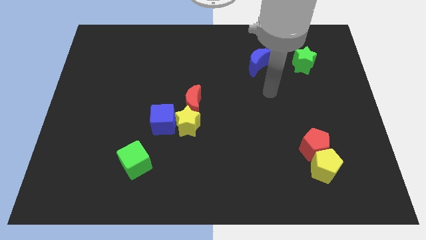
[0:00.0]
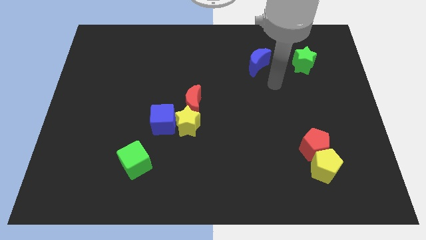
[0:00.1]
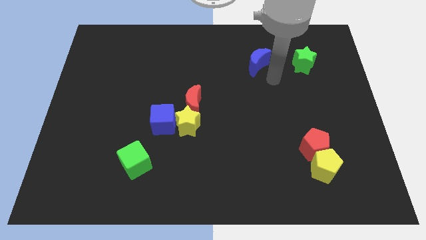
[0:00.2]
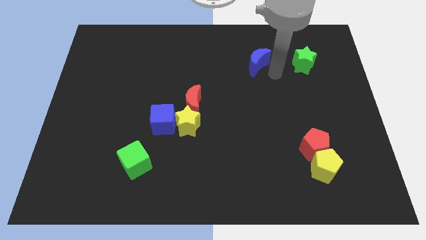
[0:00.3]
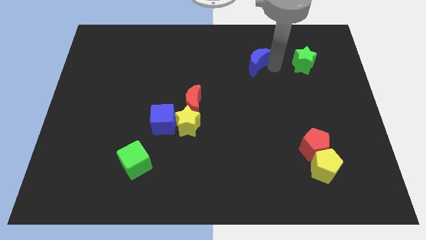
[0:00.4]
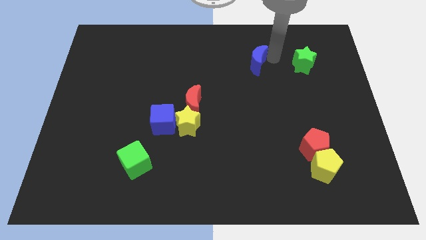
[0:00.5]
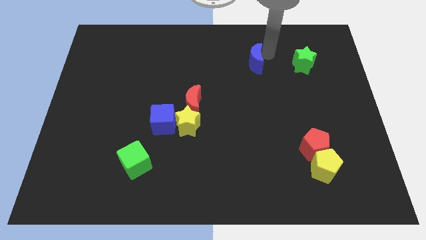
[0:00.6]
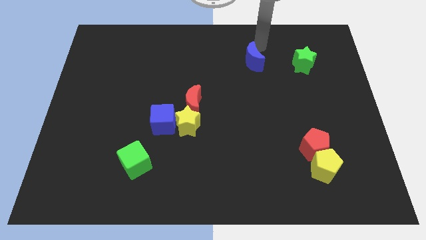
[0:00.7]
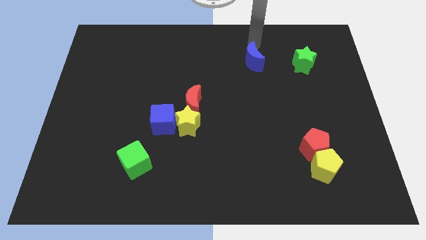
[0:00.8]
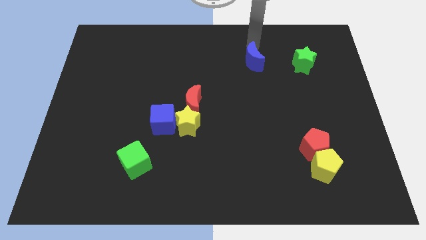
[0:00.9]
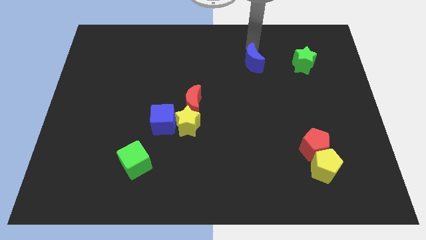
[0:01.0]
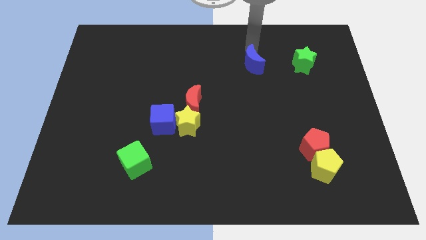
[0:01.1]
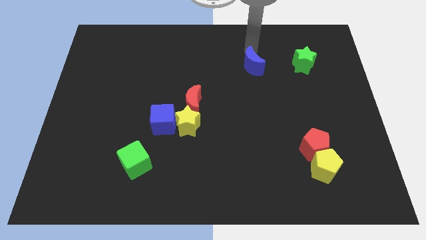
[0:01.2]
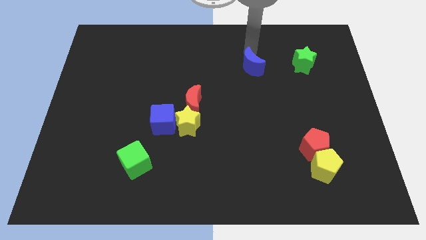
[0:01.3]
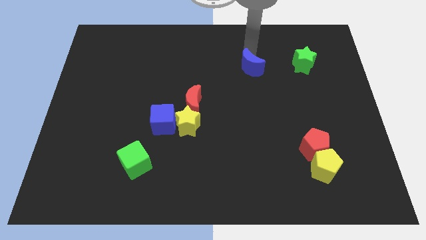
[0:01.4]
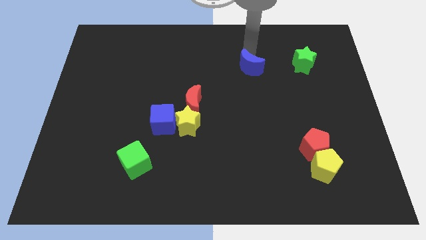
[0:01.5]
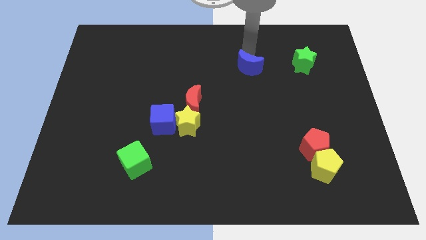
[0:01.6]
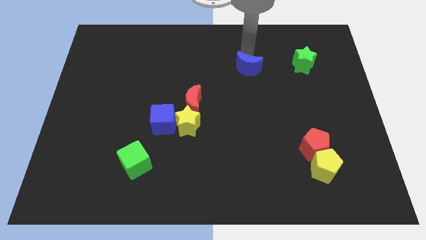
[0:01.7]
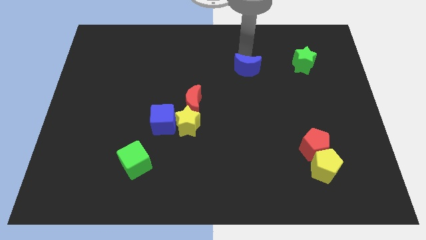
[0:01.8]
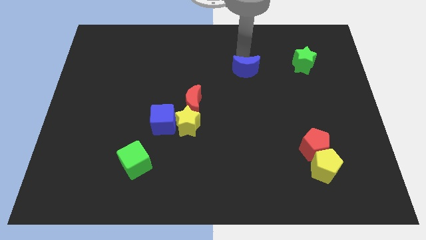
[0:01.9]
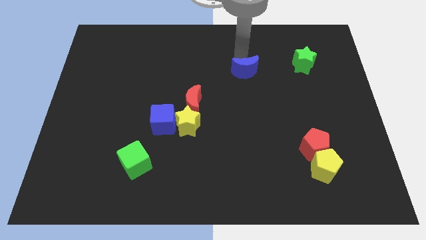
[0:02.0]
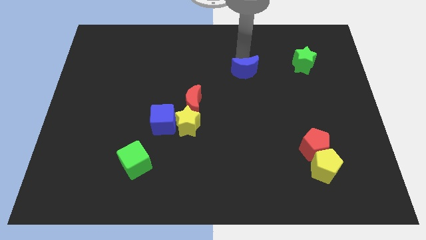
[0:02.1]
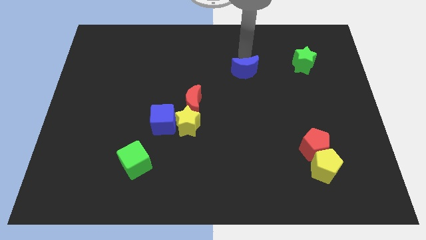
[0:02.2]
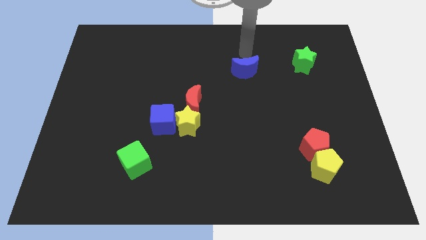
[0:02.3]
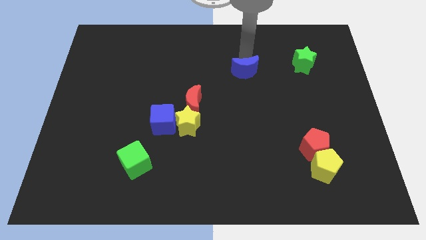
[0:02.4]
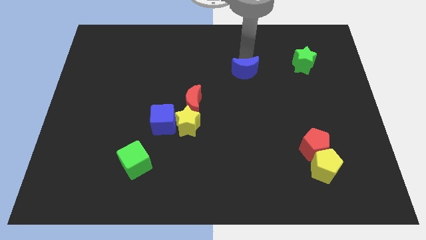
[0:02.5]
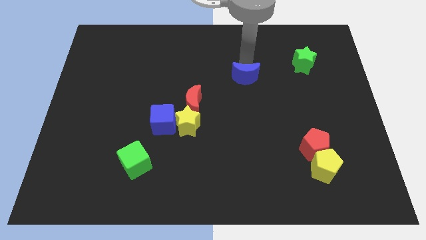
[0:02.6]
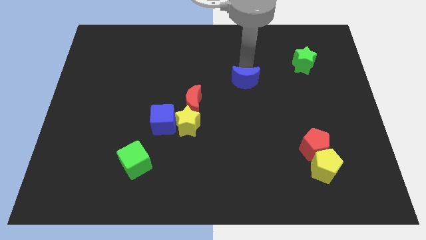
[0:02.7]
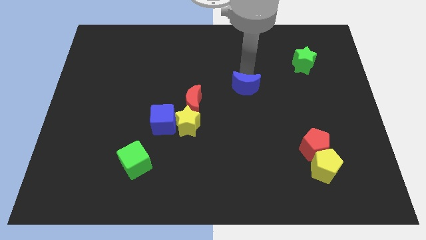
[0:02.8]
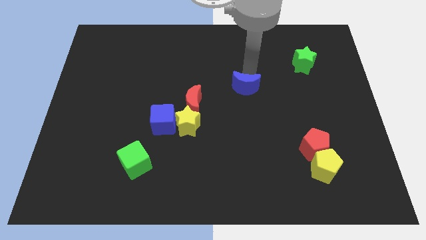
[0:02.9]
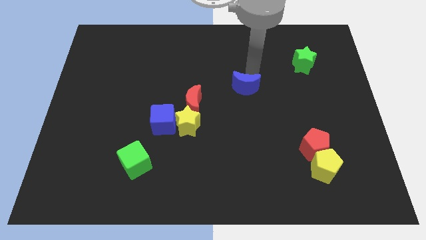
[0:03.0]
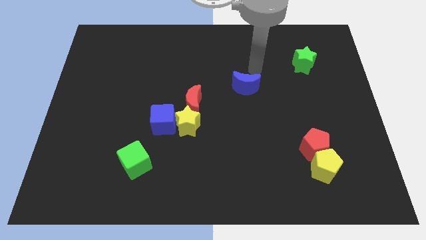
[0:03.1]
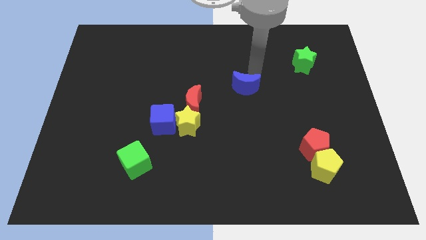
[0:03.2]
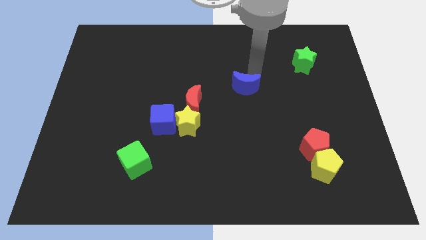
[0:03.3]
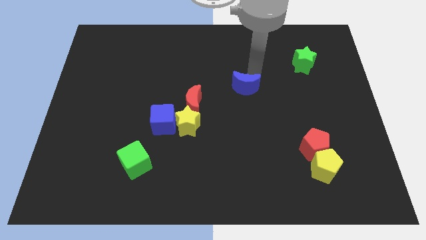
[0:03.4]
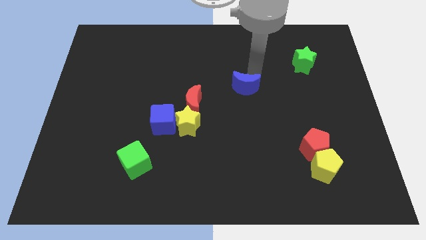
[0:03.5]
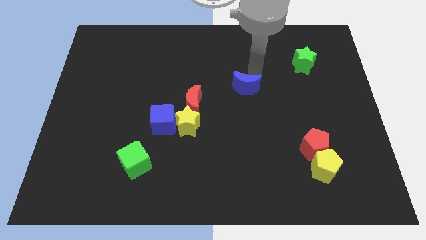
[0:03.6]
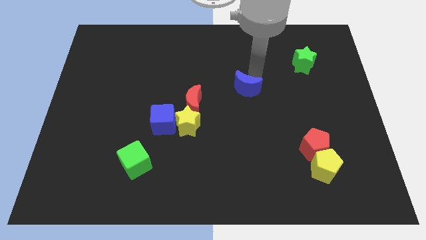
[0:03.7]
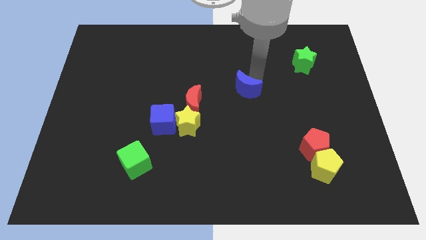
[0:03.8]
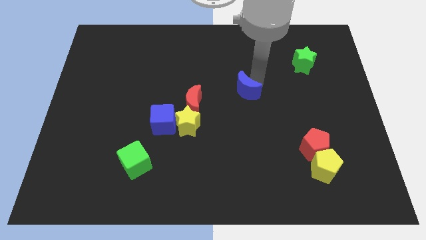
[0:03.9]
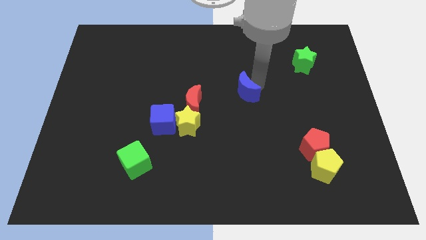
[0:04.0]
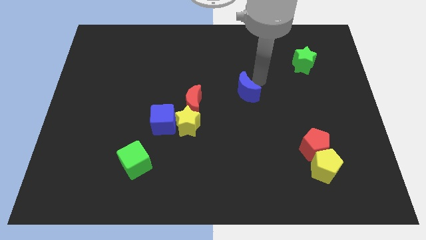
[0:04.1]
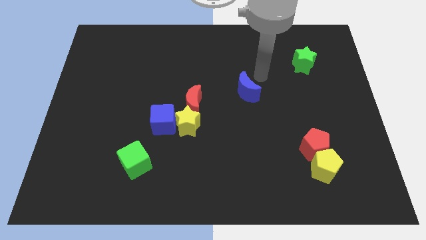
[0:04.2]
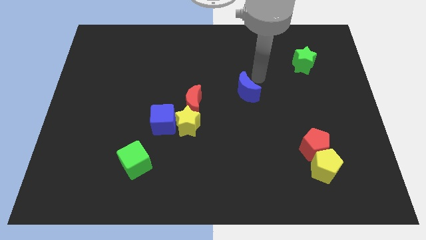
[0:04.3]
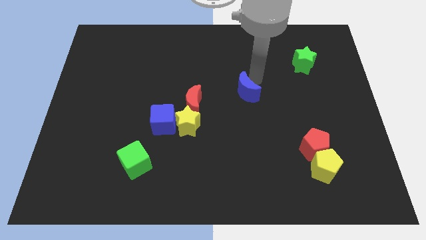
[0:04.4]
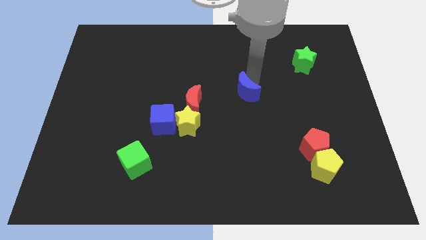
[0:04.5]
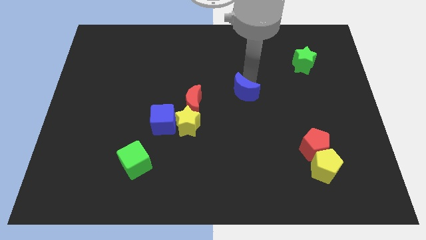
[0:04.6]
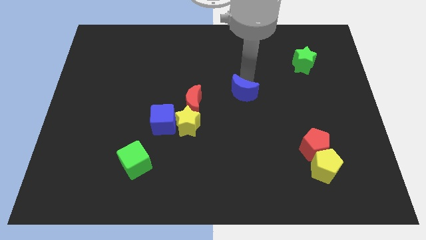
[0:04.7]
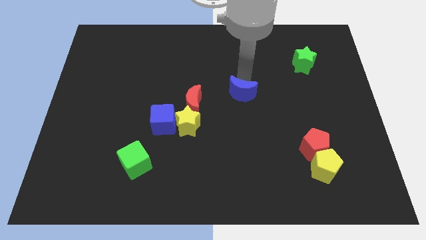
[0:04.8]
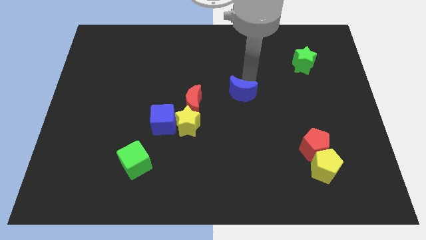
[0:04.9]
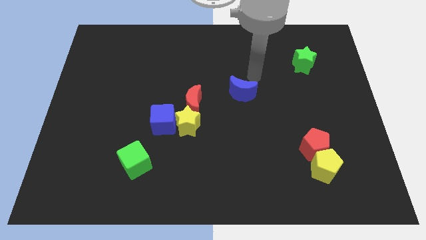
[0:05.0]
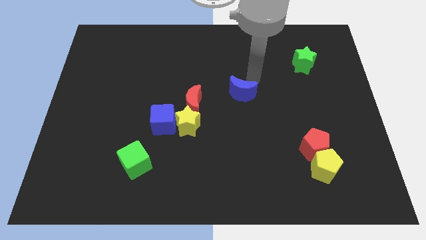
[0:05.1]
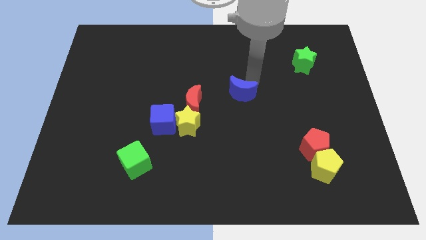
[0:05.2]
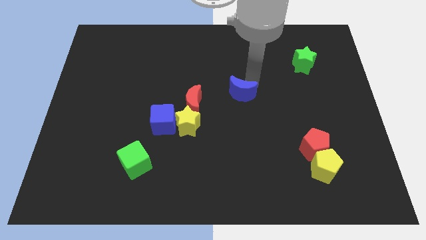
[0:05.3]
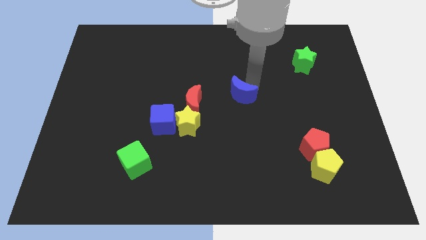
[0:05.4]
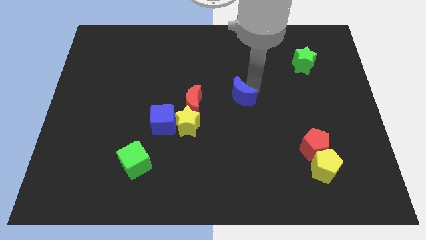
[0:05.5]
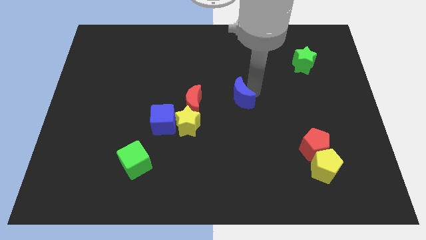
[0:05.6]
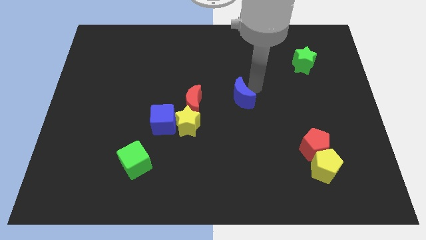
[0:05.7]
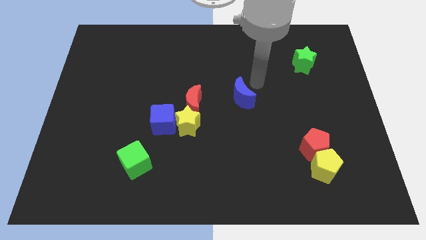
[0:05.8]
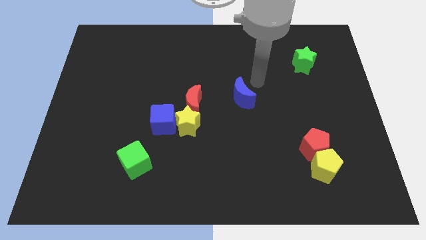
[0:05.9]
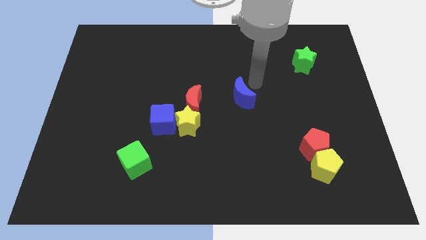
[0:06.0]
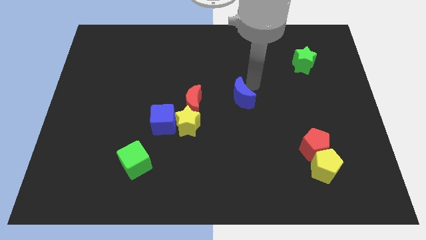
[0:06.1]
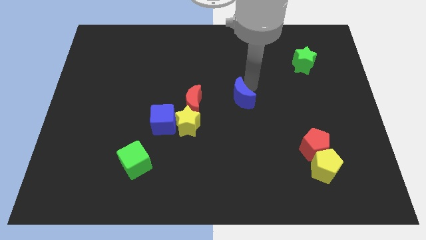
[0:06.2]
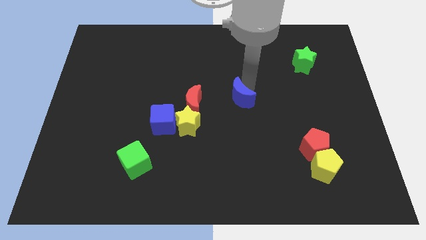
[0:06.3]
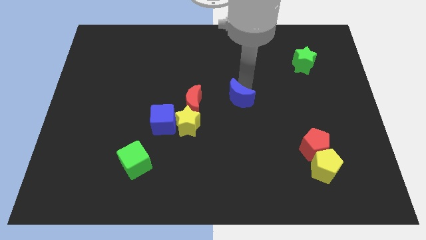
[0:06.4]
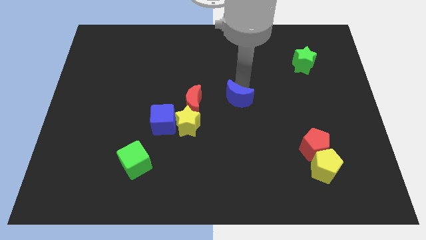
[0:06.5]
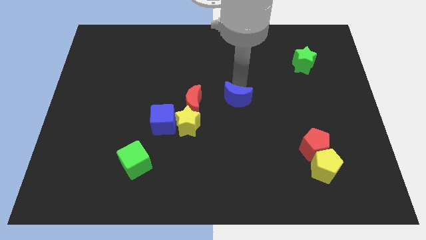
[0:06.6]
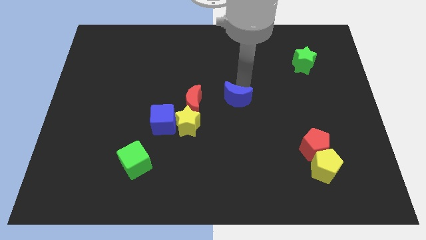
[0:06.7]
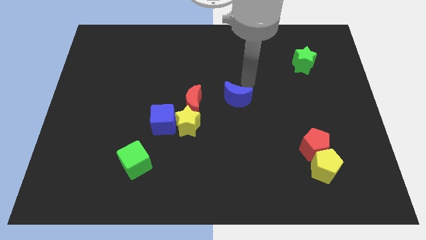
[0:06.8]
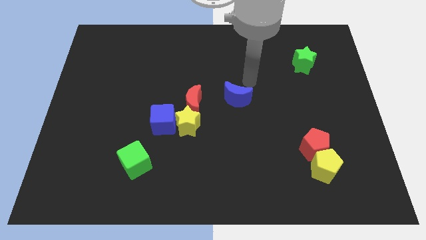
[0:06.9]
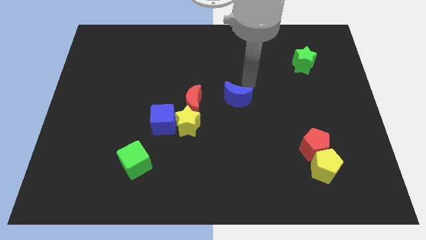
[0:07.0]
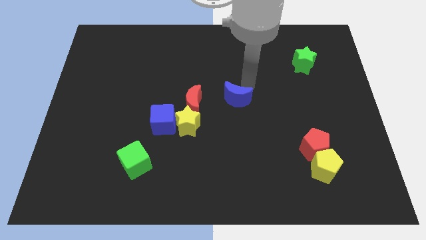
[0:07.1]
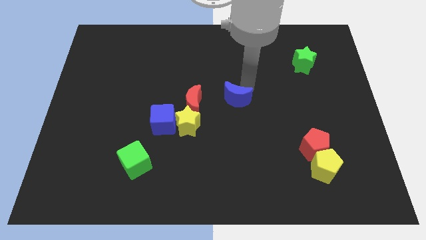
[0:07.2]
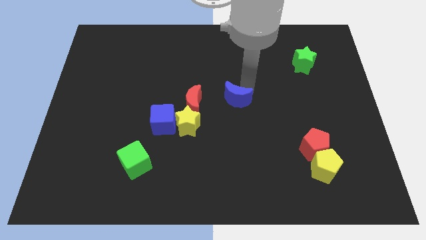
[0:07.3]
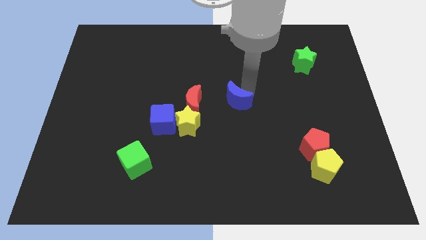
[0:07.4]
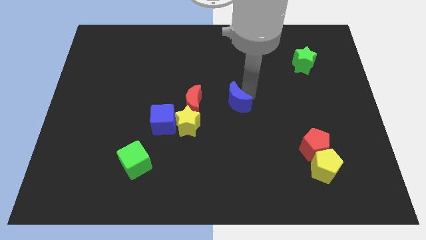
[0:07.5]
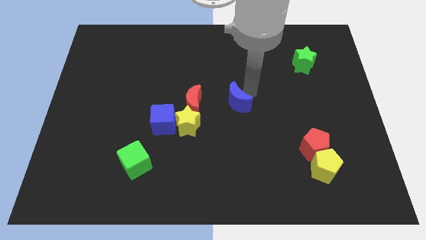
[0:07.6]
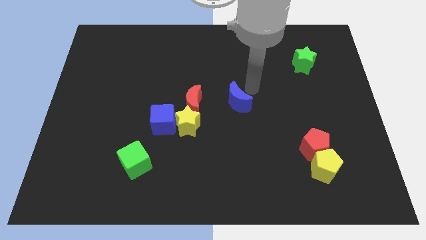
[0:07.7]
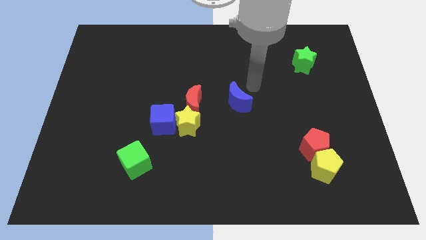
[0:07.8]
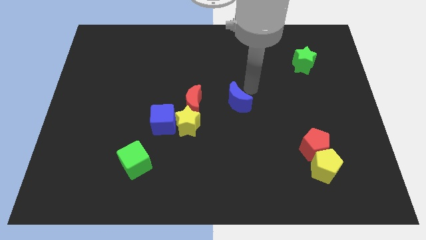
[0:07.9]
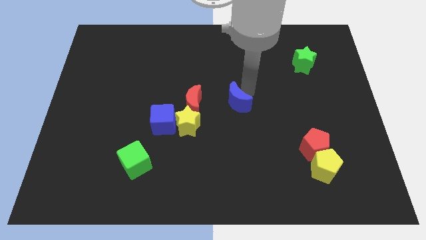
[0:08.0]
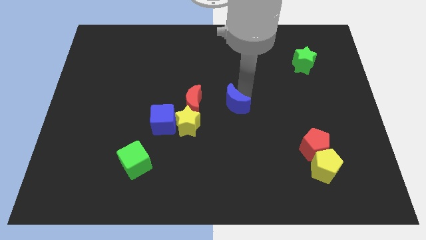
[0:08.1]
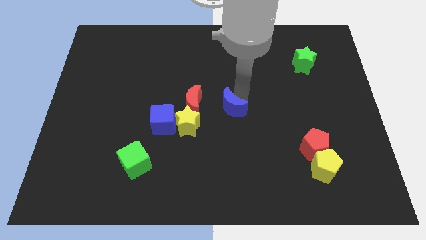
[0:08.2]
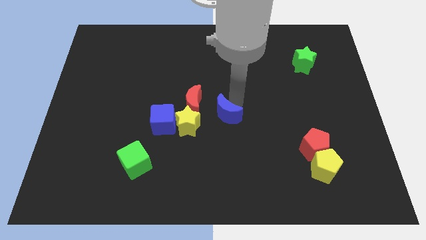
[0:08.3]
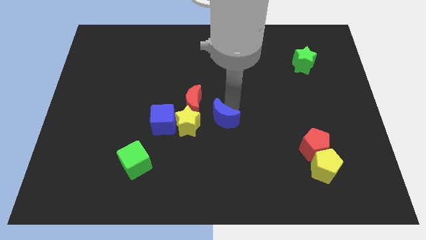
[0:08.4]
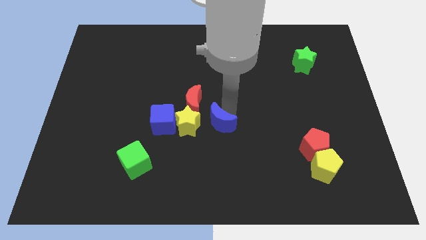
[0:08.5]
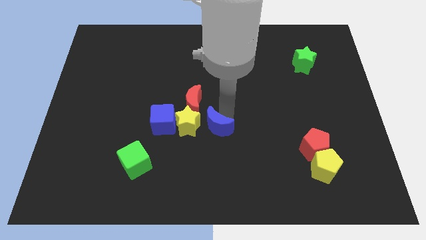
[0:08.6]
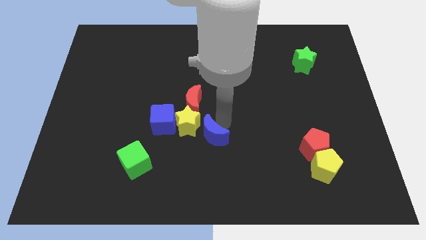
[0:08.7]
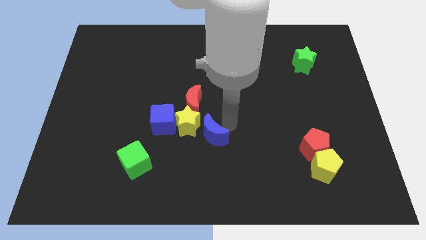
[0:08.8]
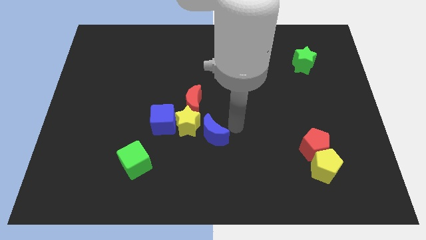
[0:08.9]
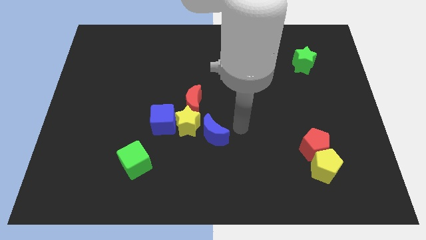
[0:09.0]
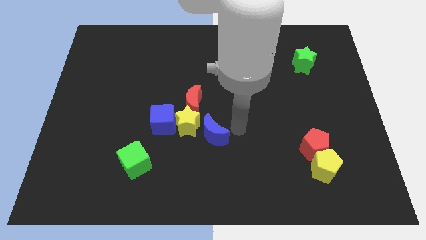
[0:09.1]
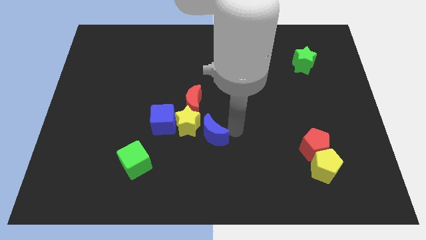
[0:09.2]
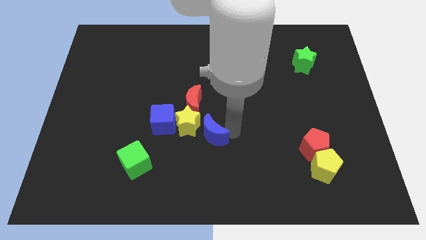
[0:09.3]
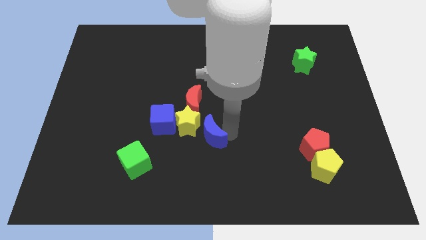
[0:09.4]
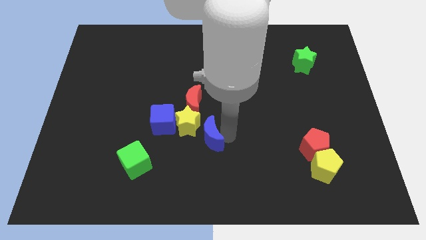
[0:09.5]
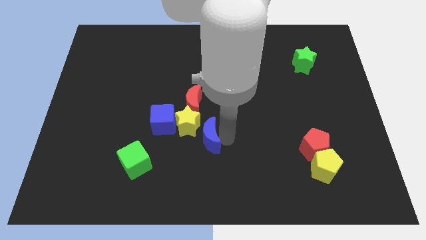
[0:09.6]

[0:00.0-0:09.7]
push the blue moon diagonally down and to the right of the blue cube
